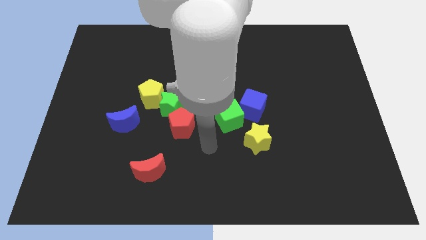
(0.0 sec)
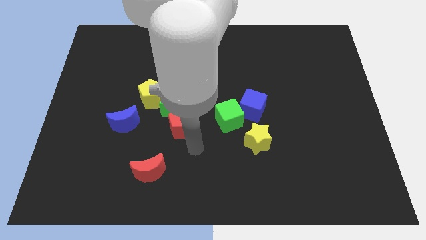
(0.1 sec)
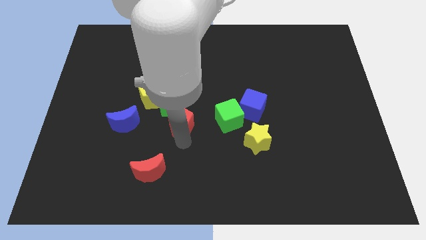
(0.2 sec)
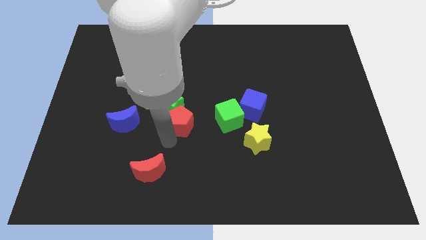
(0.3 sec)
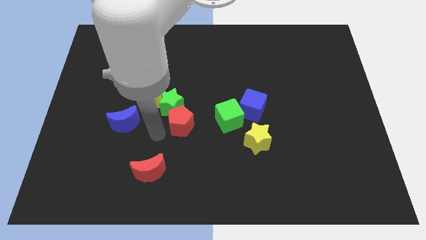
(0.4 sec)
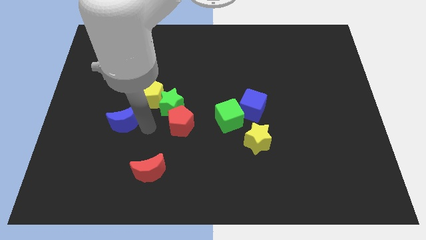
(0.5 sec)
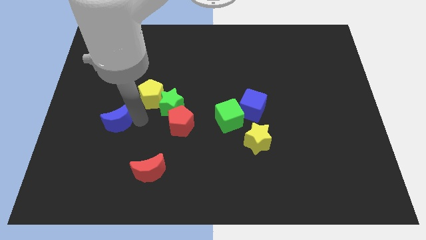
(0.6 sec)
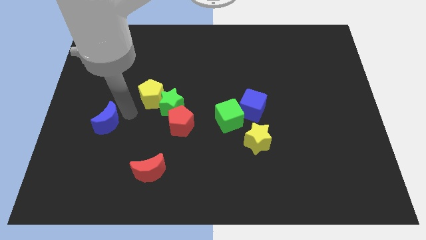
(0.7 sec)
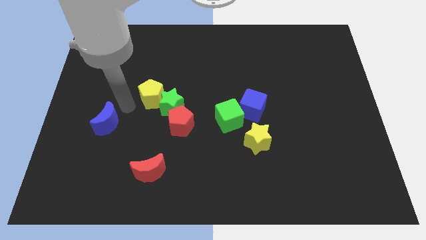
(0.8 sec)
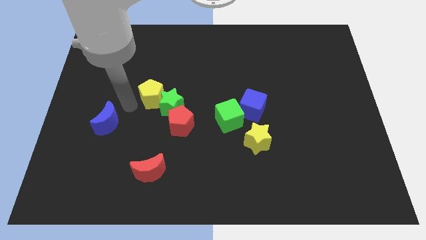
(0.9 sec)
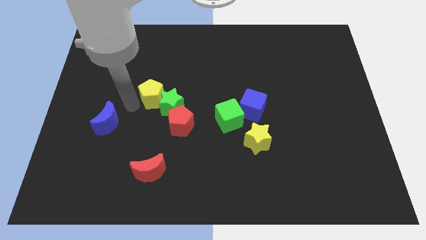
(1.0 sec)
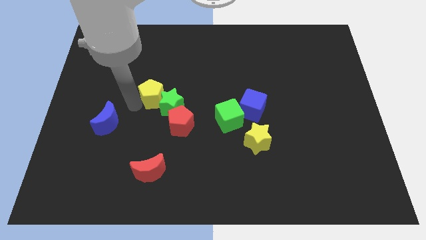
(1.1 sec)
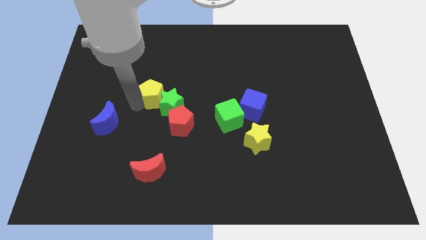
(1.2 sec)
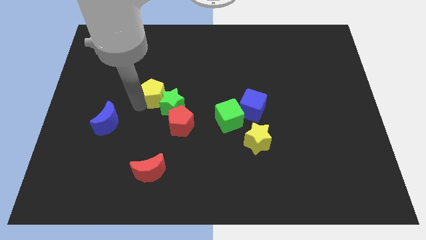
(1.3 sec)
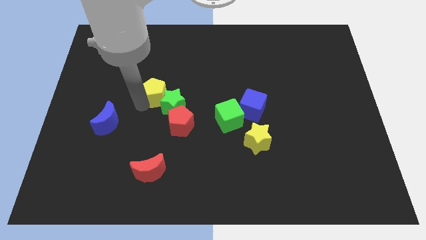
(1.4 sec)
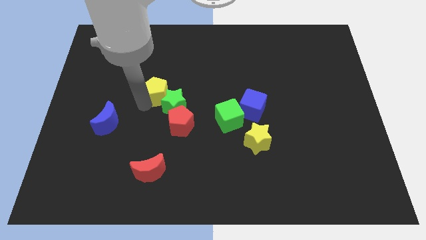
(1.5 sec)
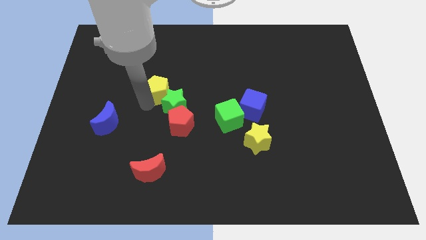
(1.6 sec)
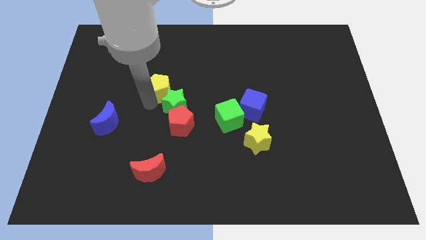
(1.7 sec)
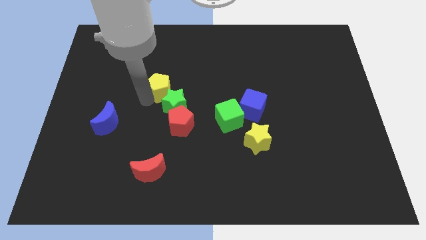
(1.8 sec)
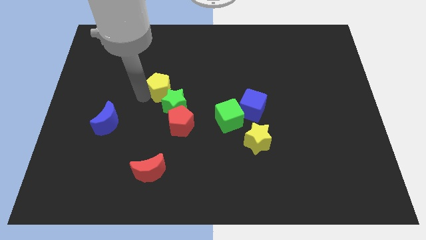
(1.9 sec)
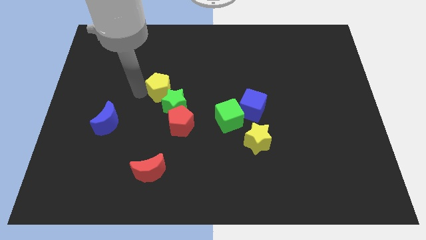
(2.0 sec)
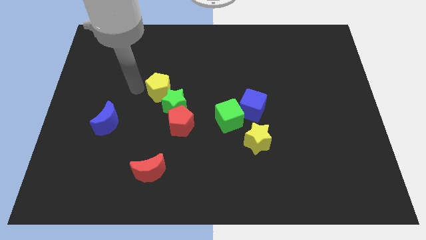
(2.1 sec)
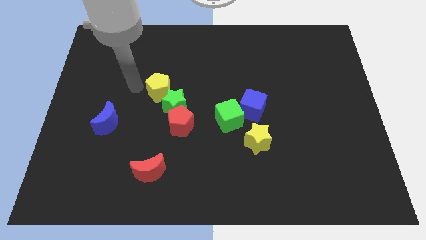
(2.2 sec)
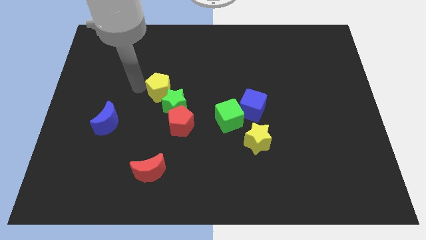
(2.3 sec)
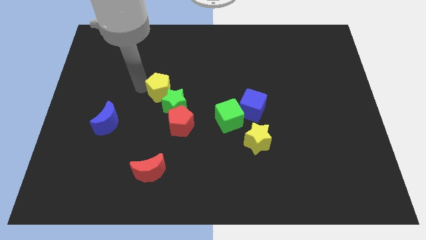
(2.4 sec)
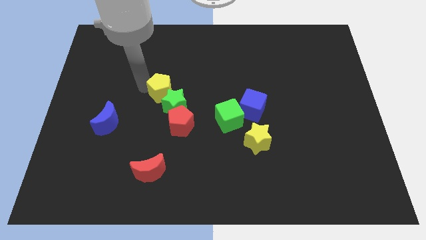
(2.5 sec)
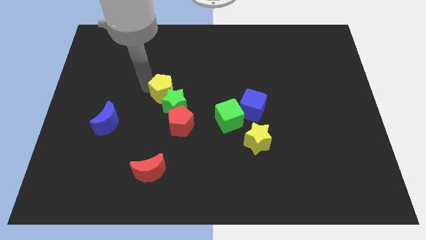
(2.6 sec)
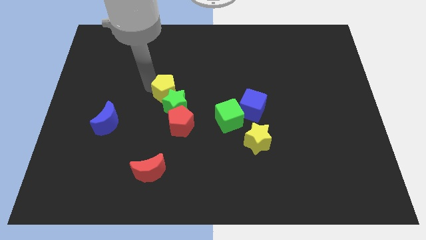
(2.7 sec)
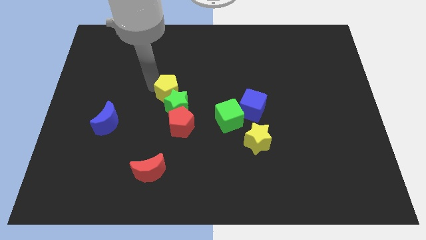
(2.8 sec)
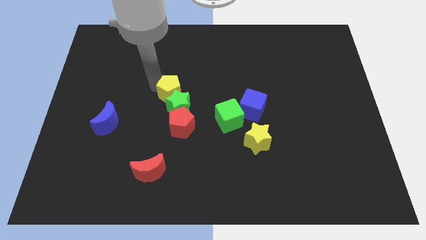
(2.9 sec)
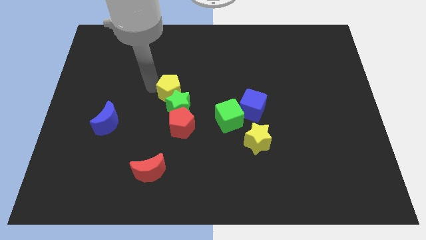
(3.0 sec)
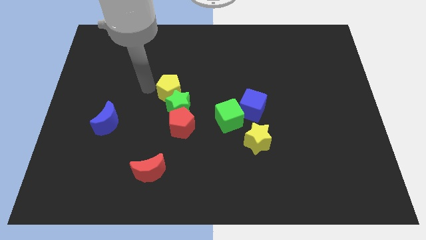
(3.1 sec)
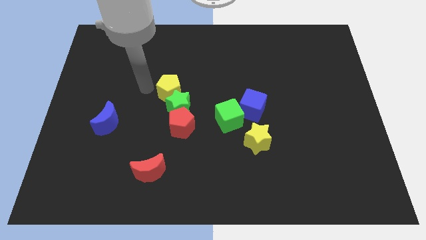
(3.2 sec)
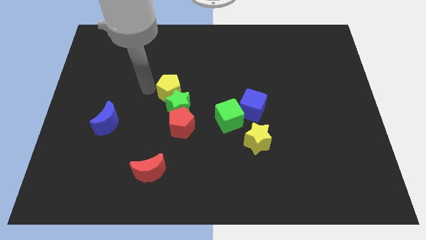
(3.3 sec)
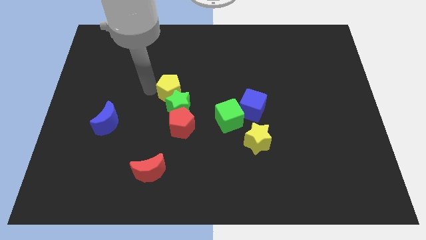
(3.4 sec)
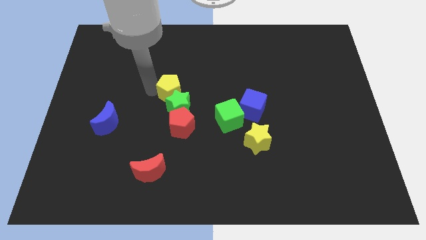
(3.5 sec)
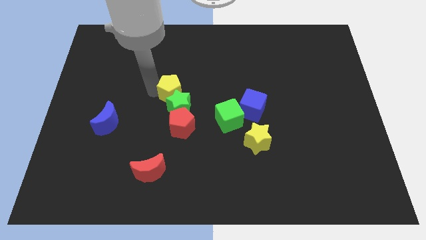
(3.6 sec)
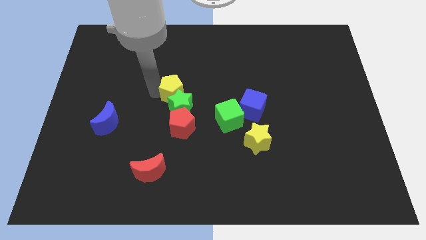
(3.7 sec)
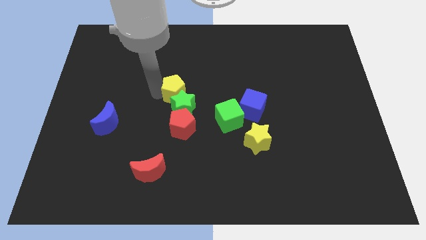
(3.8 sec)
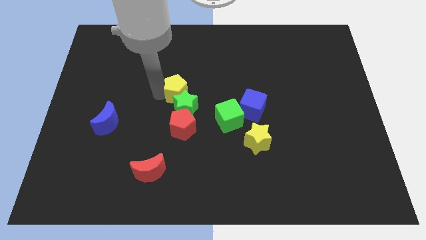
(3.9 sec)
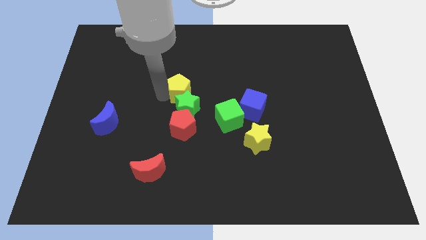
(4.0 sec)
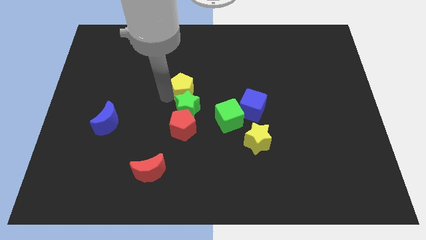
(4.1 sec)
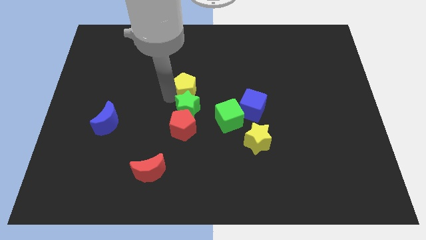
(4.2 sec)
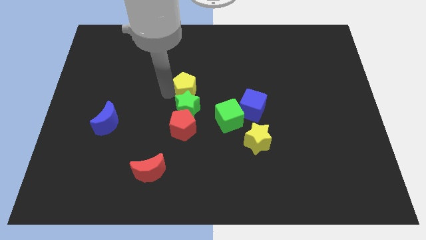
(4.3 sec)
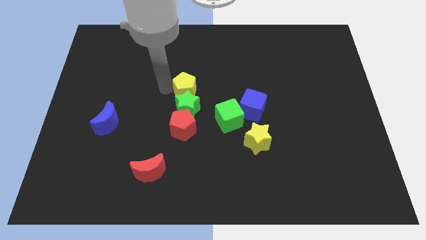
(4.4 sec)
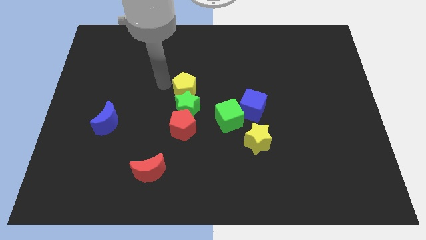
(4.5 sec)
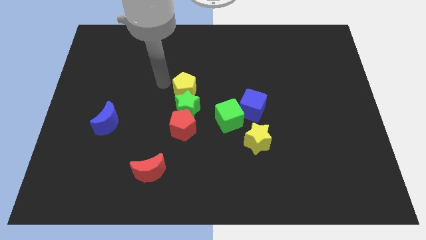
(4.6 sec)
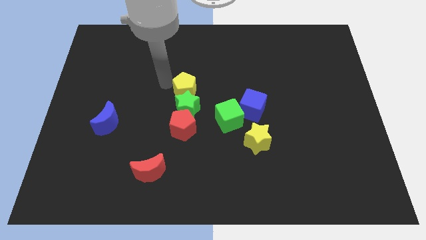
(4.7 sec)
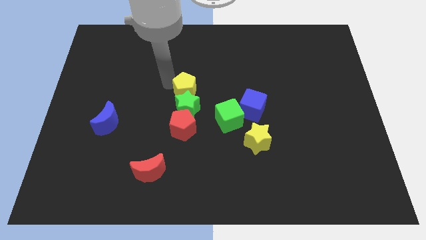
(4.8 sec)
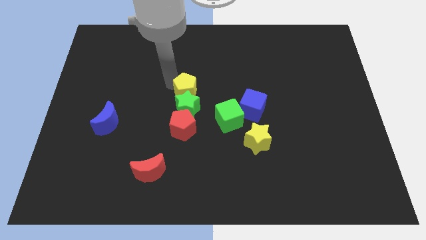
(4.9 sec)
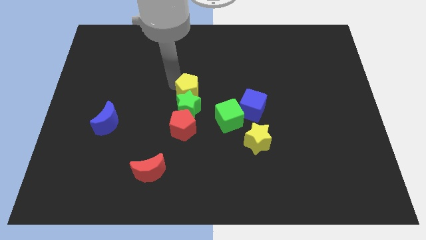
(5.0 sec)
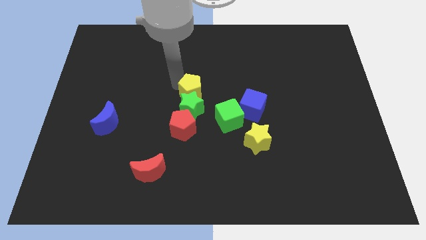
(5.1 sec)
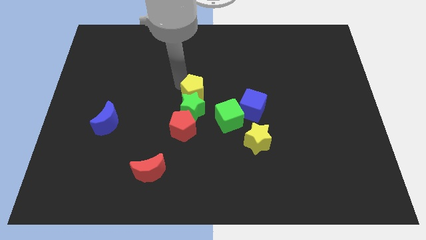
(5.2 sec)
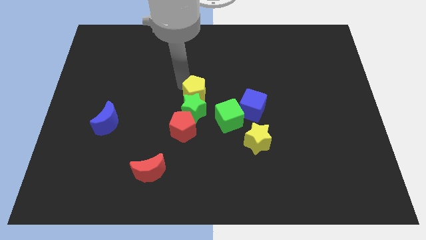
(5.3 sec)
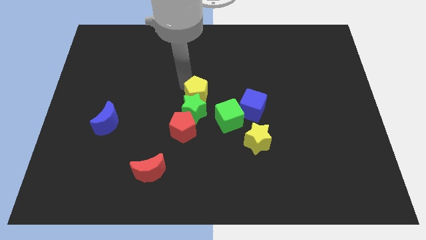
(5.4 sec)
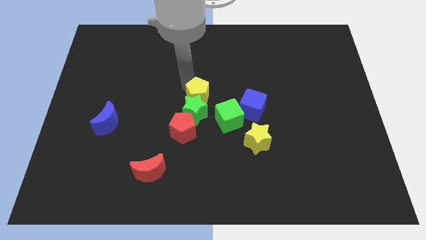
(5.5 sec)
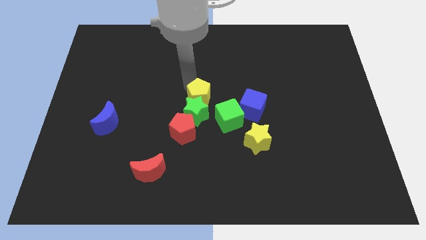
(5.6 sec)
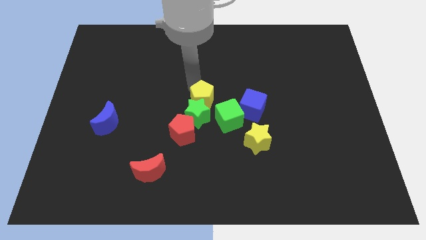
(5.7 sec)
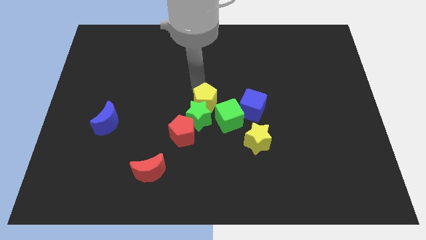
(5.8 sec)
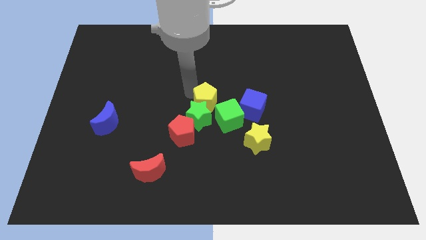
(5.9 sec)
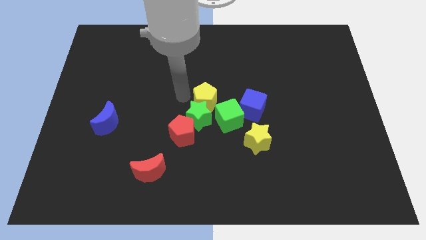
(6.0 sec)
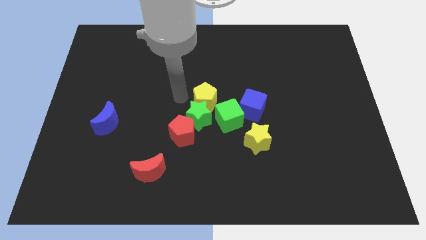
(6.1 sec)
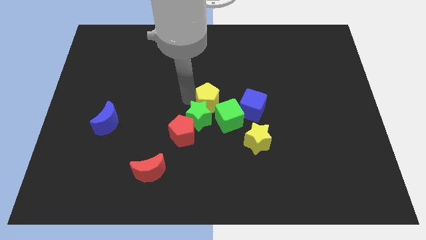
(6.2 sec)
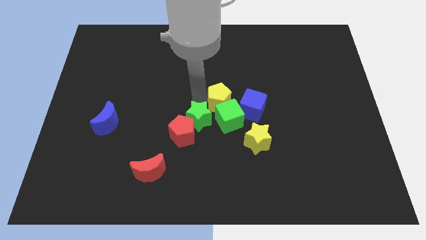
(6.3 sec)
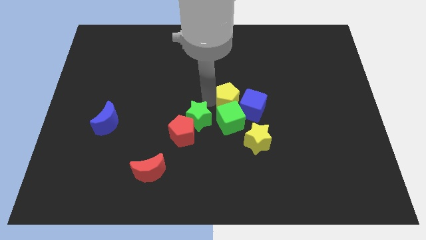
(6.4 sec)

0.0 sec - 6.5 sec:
put the yellow pentagon towards the blue cube
